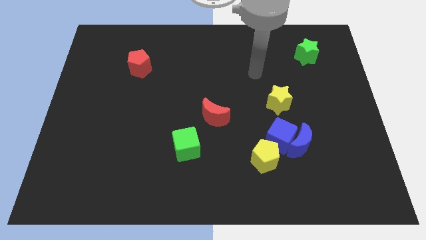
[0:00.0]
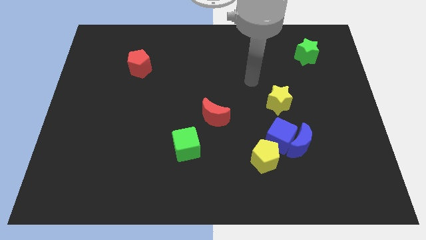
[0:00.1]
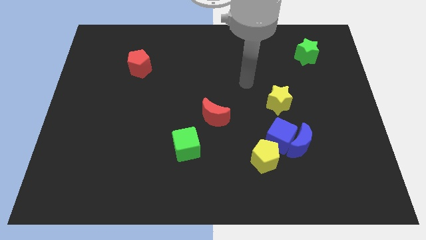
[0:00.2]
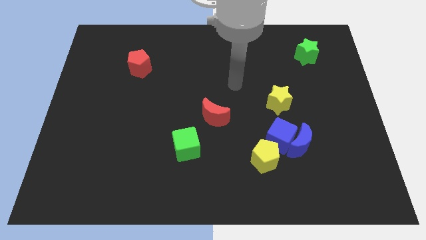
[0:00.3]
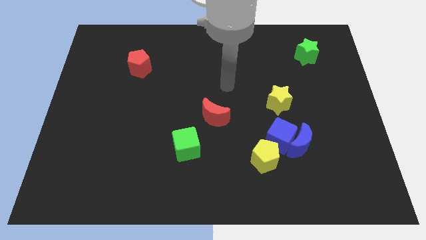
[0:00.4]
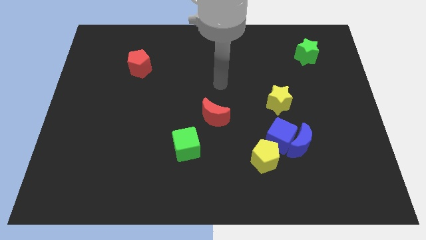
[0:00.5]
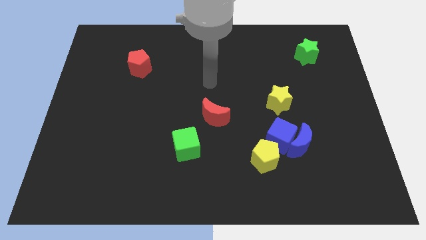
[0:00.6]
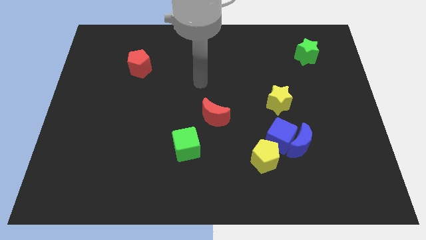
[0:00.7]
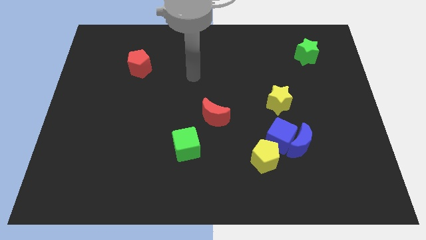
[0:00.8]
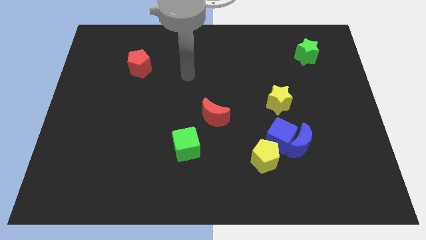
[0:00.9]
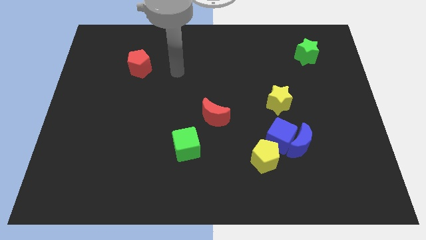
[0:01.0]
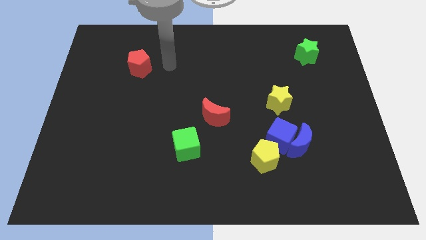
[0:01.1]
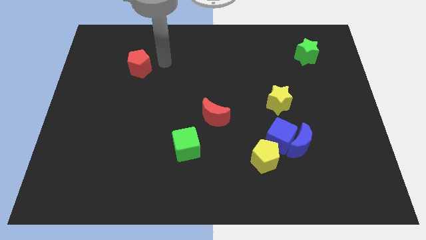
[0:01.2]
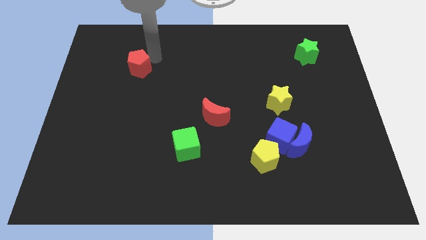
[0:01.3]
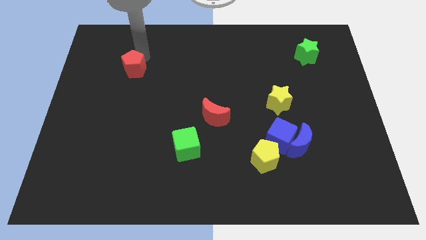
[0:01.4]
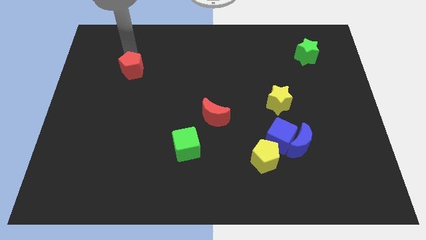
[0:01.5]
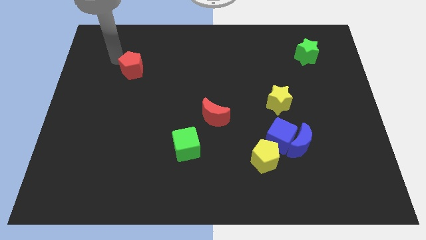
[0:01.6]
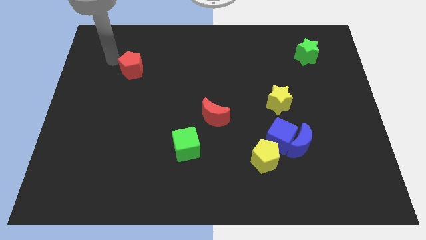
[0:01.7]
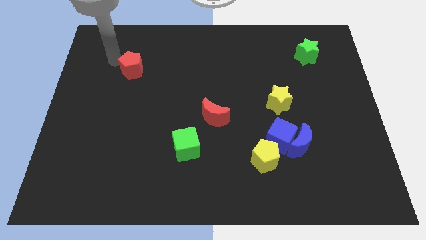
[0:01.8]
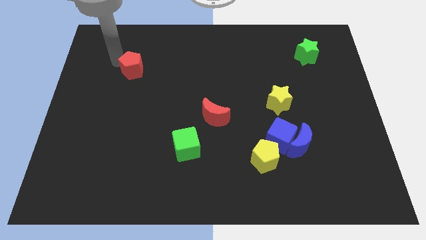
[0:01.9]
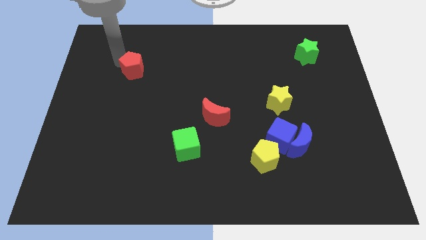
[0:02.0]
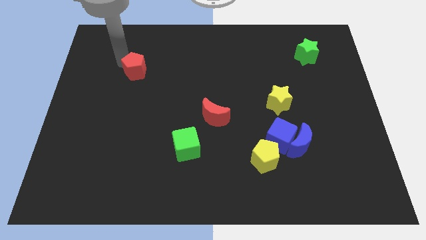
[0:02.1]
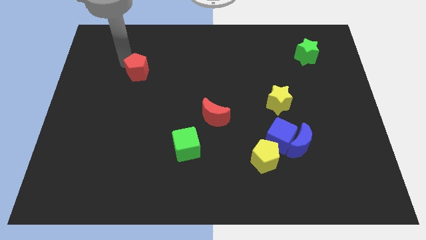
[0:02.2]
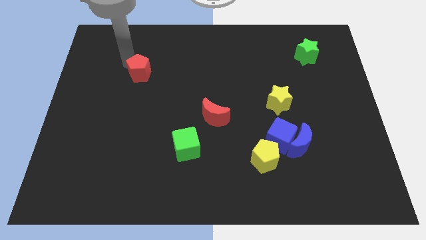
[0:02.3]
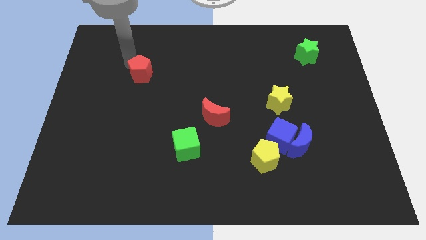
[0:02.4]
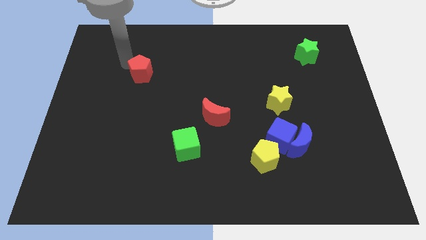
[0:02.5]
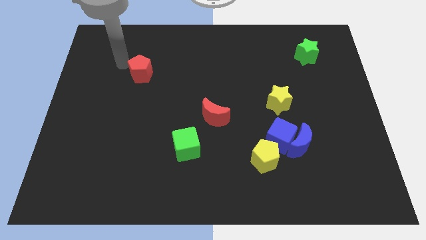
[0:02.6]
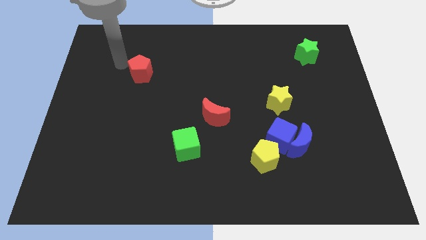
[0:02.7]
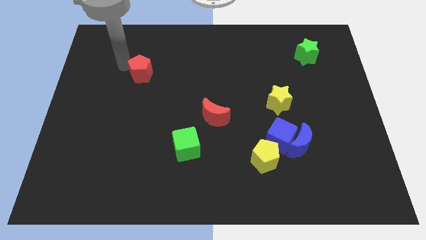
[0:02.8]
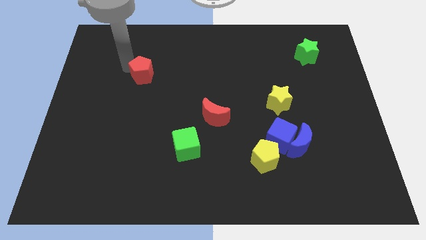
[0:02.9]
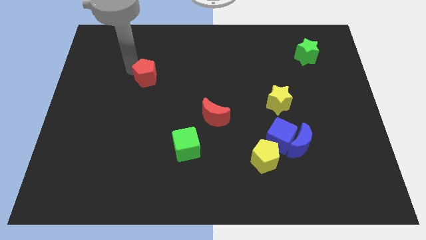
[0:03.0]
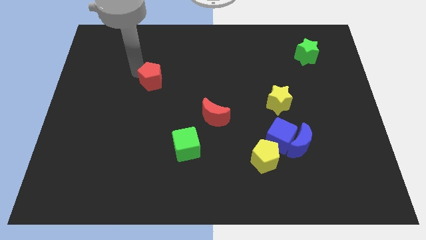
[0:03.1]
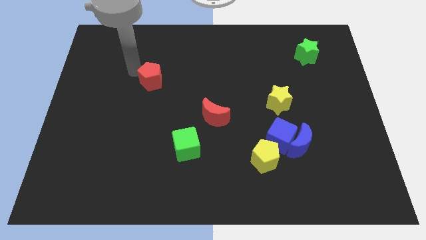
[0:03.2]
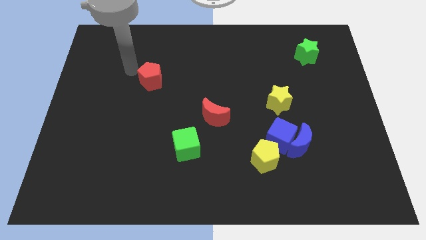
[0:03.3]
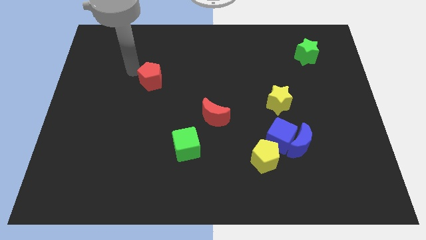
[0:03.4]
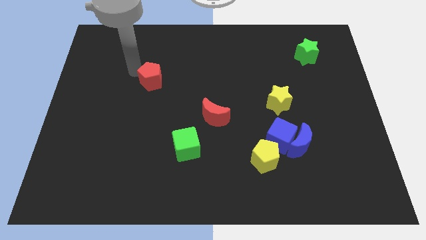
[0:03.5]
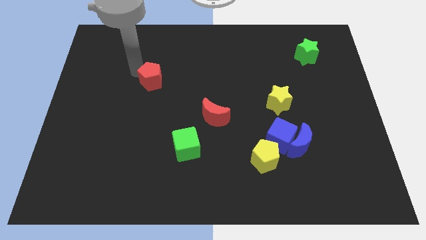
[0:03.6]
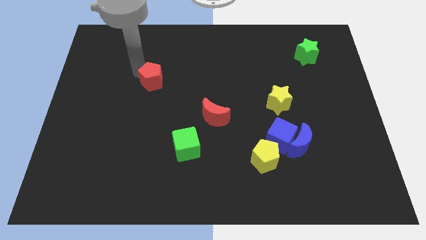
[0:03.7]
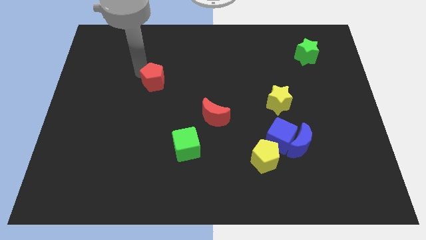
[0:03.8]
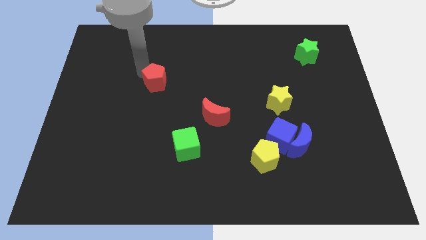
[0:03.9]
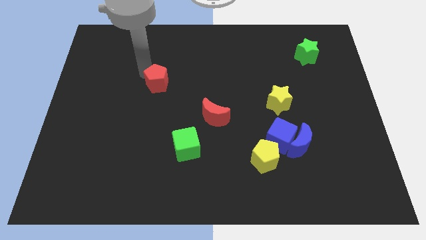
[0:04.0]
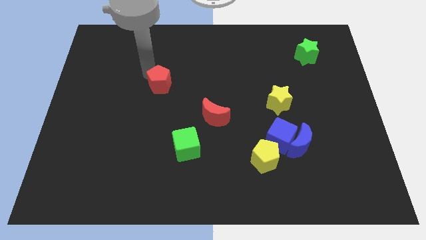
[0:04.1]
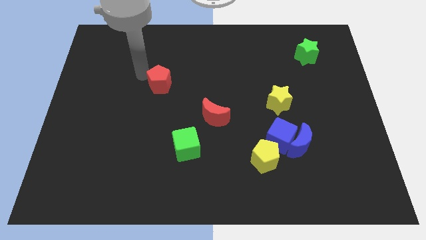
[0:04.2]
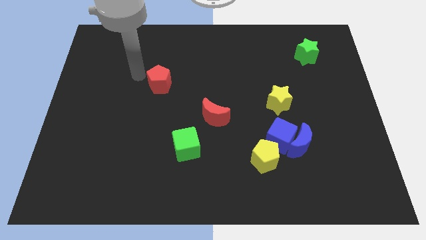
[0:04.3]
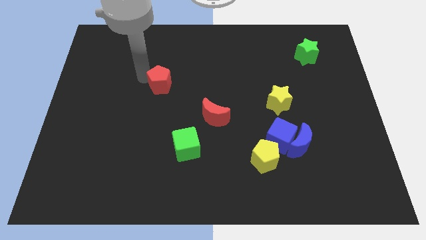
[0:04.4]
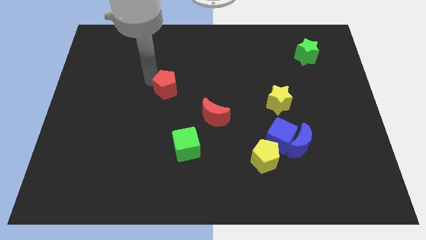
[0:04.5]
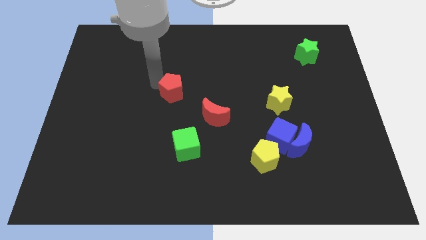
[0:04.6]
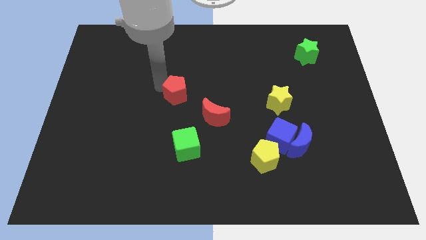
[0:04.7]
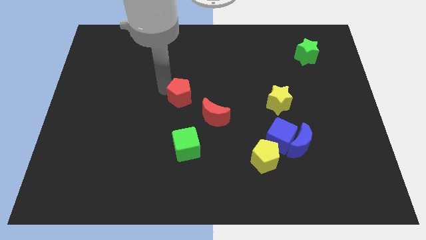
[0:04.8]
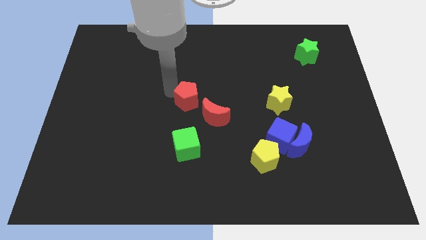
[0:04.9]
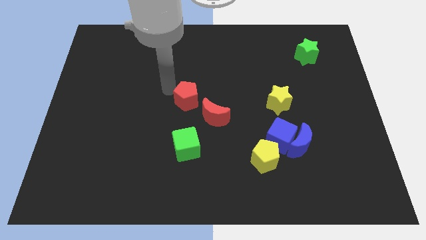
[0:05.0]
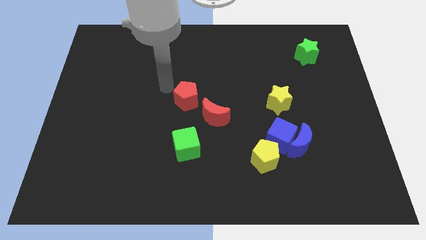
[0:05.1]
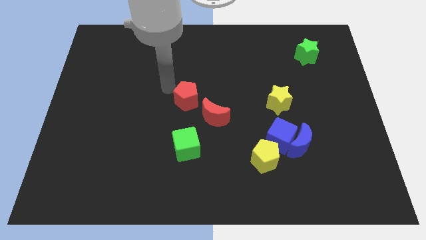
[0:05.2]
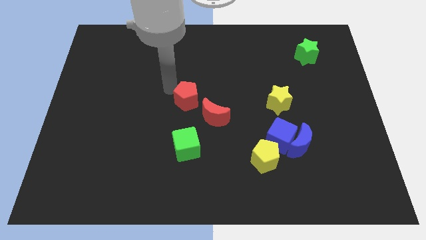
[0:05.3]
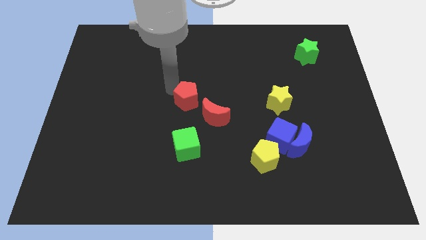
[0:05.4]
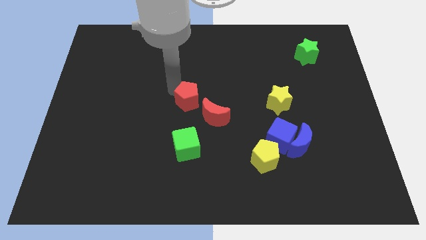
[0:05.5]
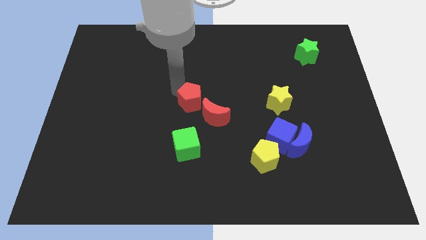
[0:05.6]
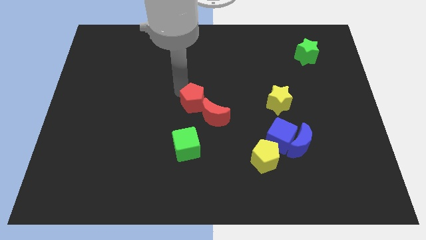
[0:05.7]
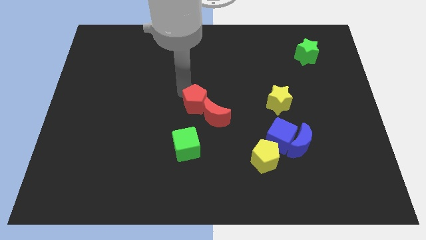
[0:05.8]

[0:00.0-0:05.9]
push the red pentagon towards the red moon
